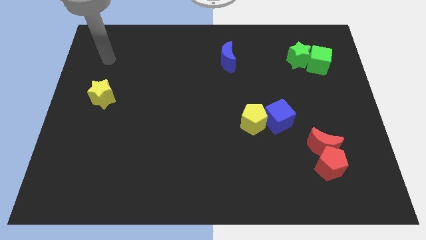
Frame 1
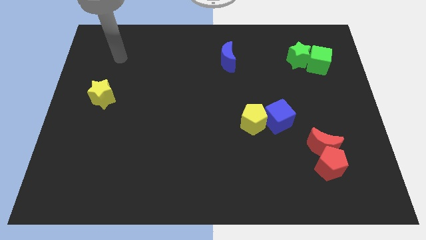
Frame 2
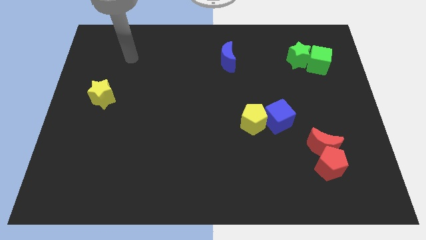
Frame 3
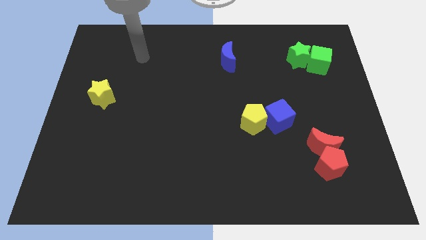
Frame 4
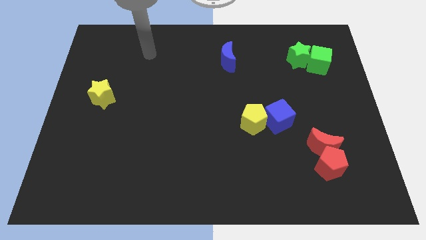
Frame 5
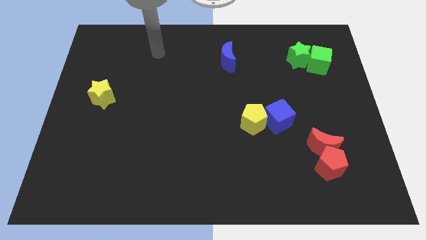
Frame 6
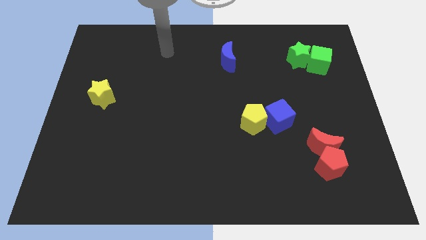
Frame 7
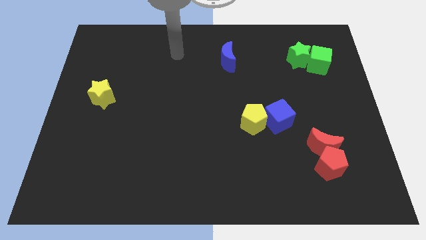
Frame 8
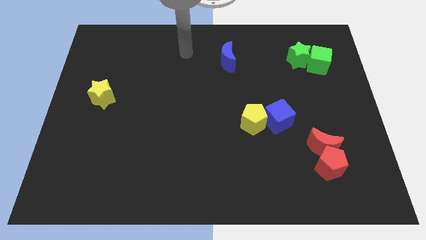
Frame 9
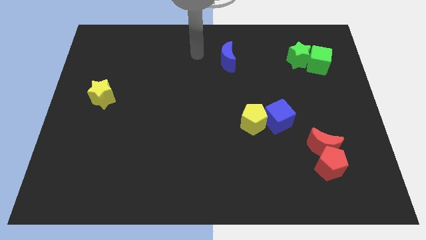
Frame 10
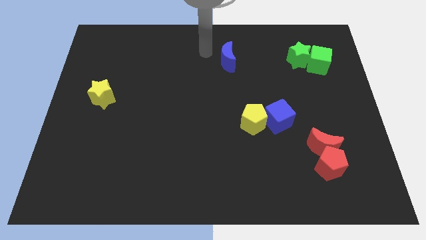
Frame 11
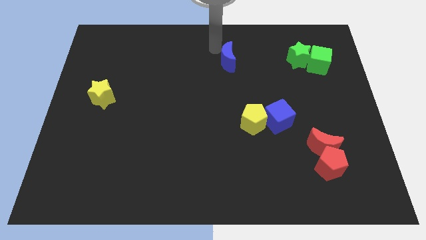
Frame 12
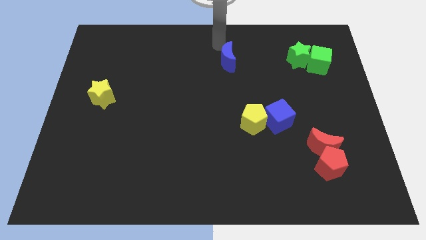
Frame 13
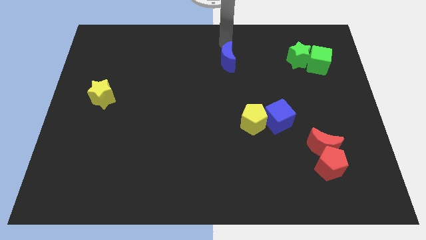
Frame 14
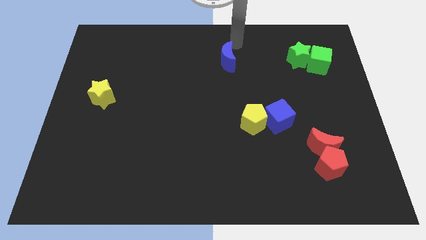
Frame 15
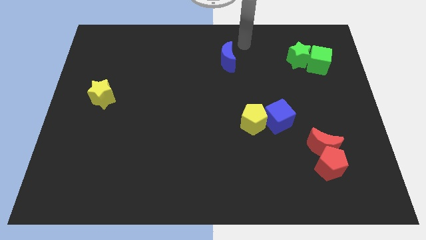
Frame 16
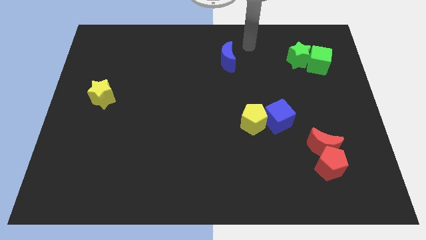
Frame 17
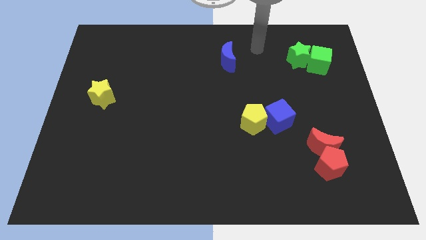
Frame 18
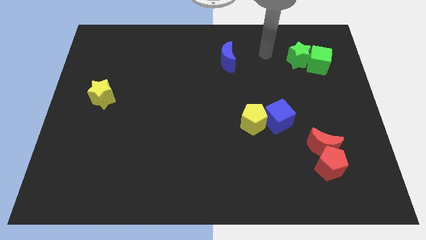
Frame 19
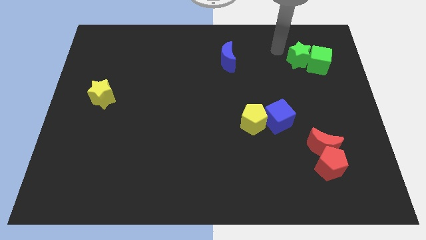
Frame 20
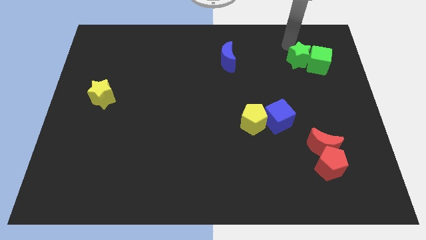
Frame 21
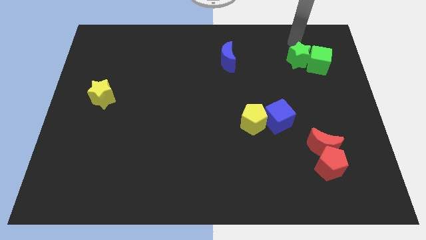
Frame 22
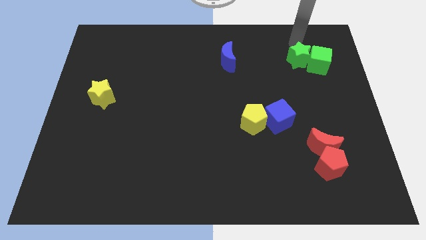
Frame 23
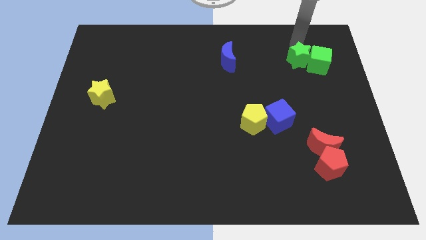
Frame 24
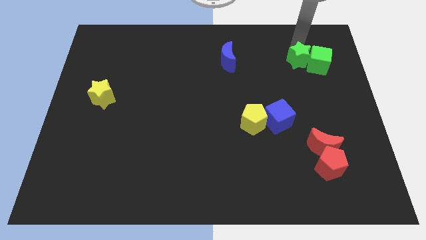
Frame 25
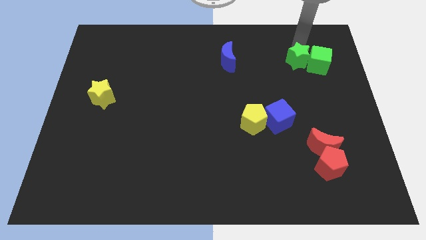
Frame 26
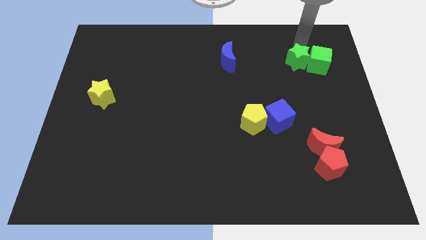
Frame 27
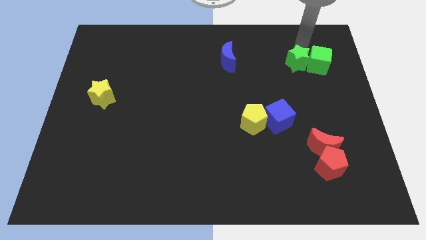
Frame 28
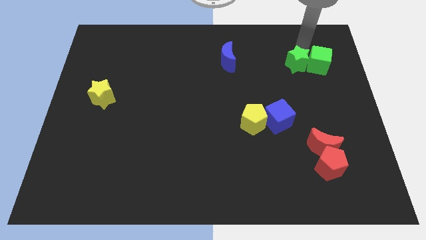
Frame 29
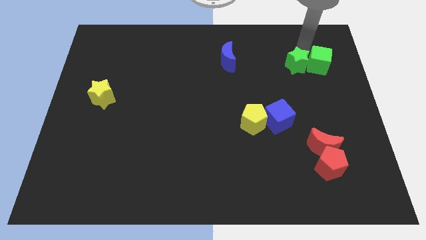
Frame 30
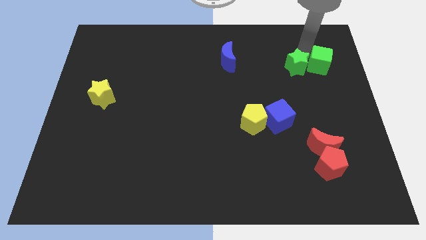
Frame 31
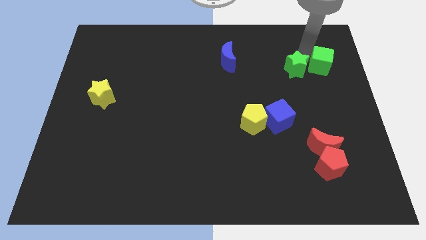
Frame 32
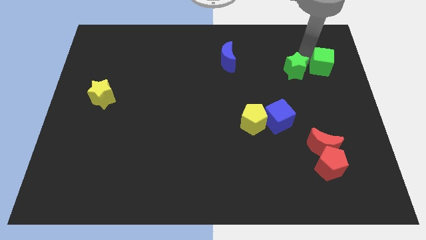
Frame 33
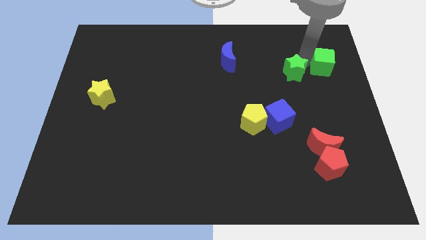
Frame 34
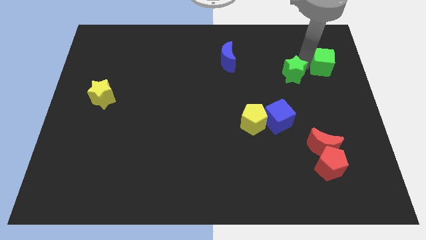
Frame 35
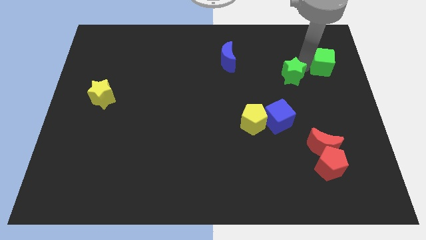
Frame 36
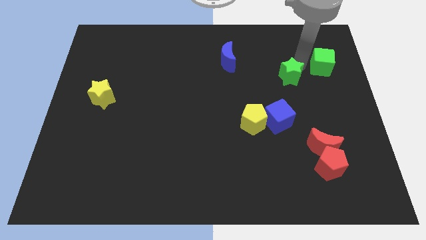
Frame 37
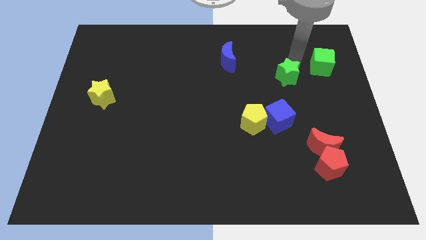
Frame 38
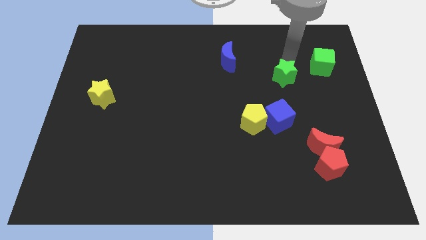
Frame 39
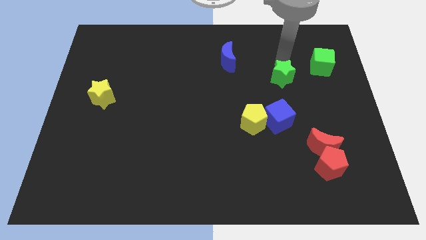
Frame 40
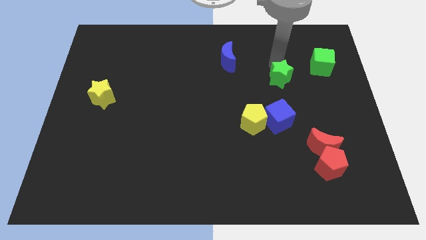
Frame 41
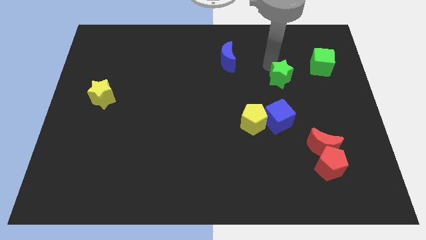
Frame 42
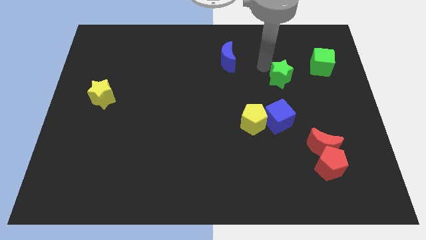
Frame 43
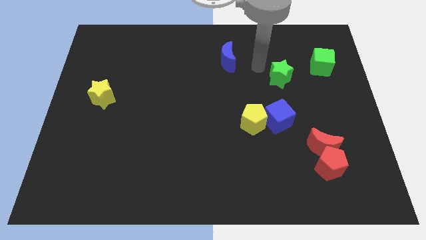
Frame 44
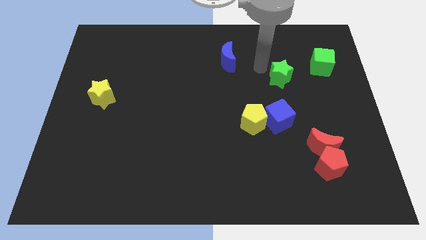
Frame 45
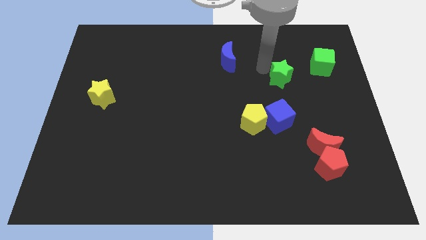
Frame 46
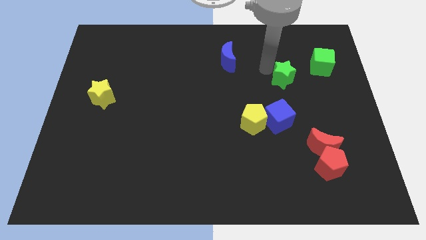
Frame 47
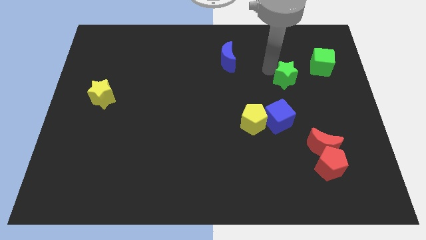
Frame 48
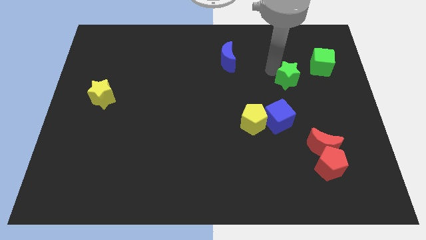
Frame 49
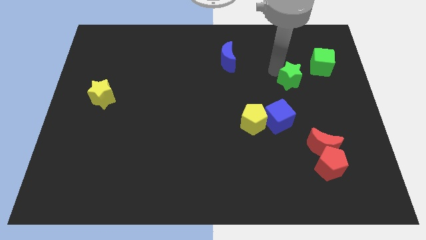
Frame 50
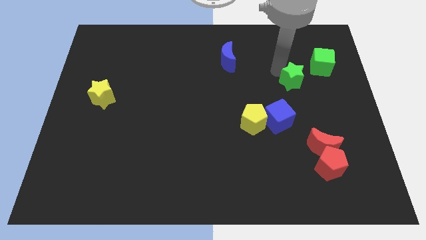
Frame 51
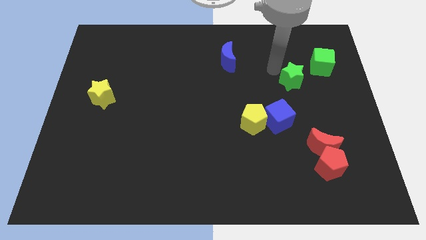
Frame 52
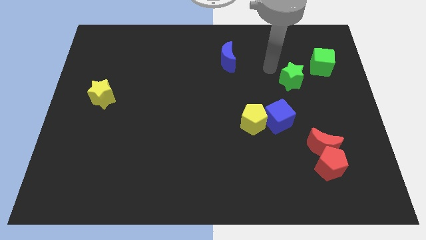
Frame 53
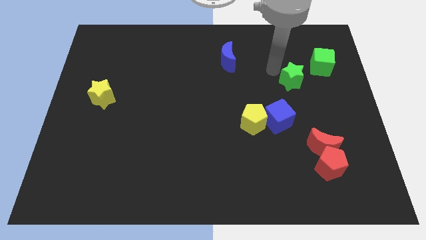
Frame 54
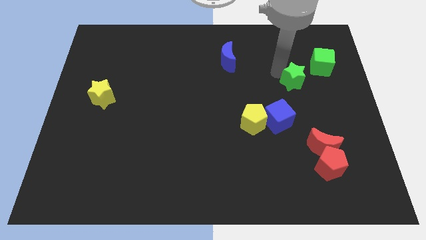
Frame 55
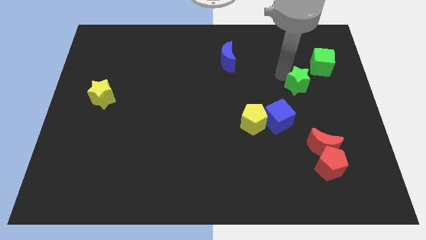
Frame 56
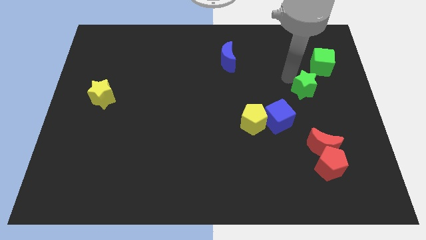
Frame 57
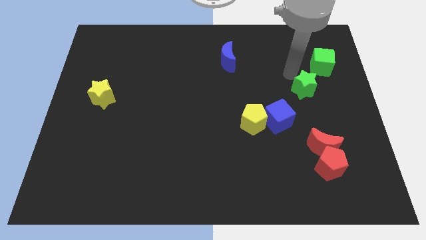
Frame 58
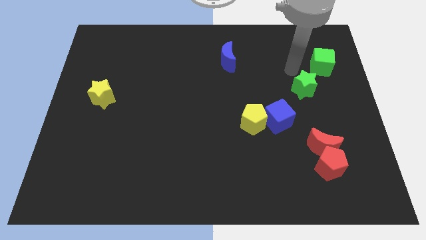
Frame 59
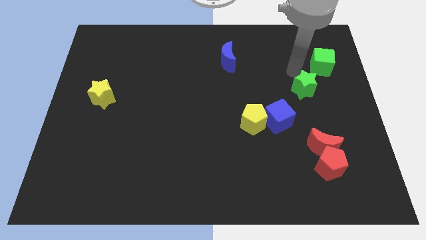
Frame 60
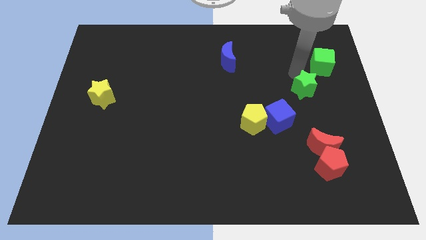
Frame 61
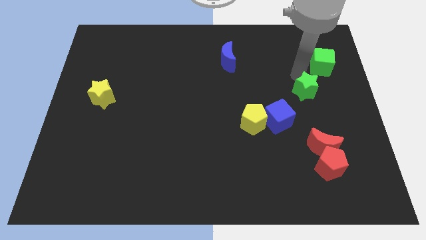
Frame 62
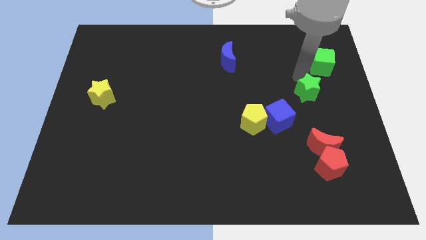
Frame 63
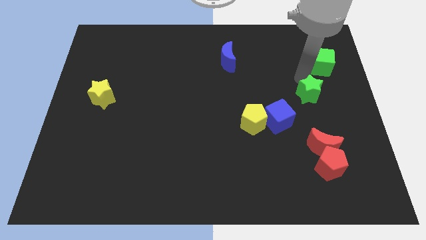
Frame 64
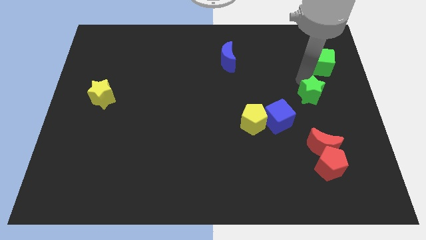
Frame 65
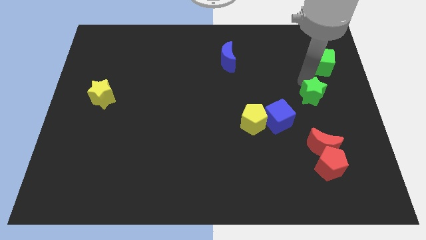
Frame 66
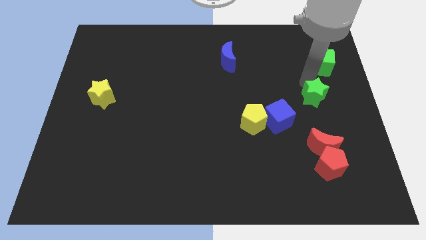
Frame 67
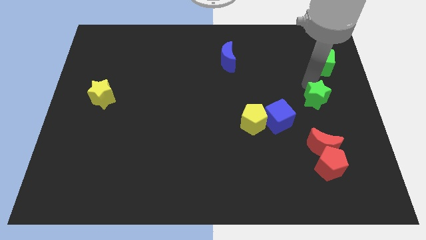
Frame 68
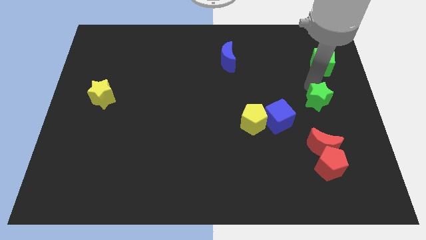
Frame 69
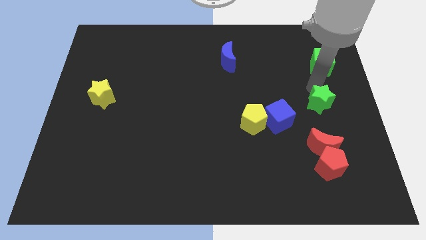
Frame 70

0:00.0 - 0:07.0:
push the green star right of the blue cube
